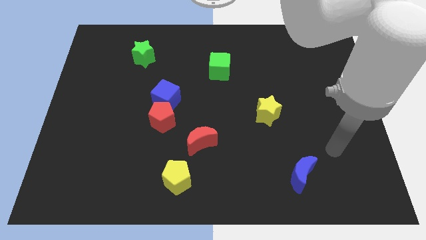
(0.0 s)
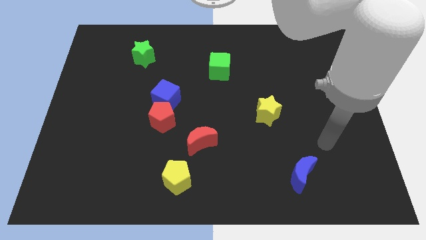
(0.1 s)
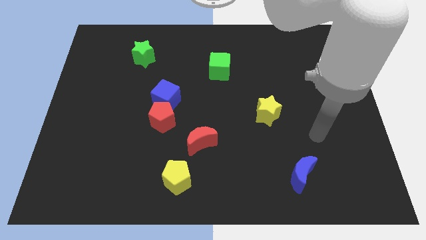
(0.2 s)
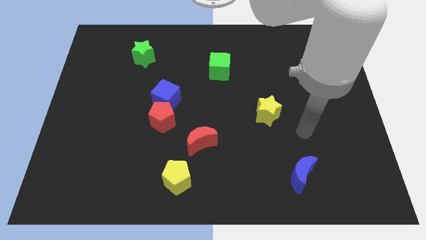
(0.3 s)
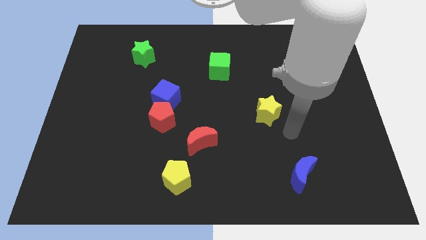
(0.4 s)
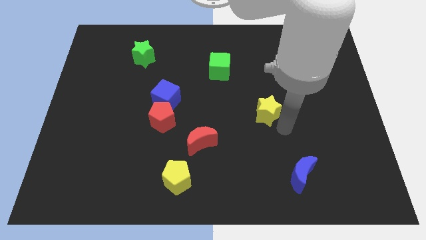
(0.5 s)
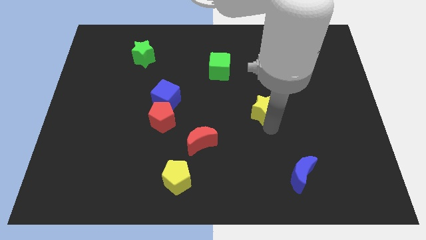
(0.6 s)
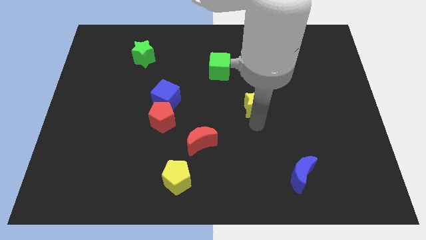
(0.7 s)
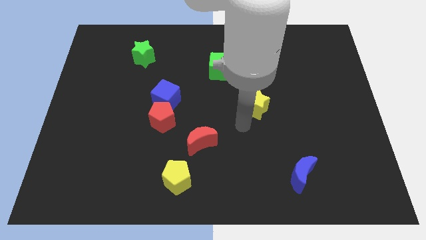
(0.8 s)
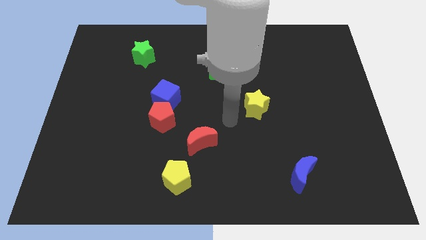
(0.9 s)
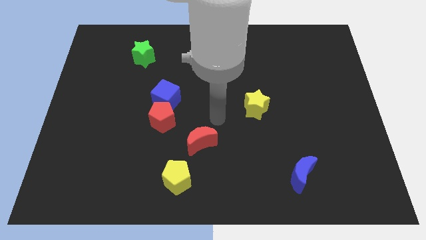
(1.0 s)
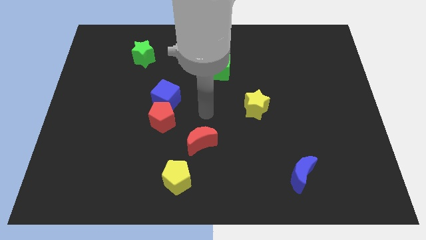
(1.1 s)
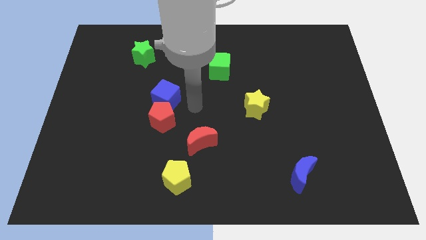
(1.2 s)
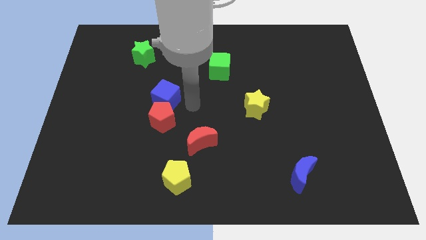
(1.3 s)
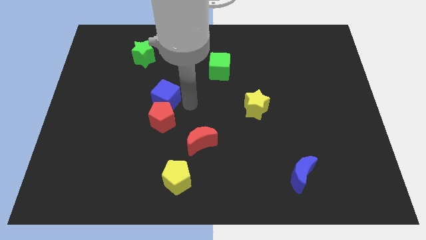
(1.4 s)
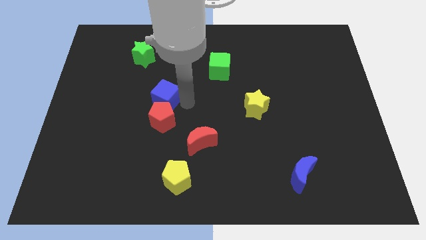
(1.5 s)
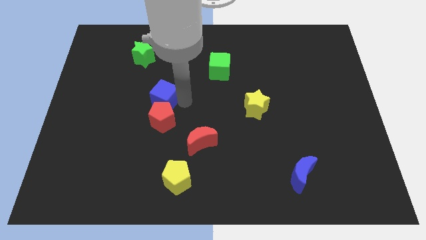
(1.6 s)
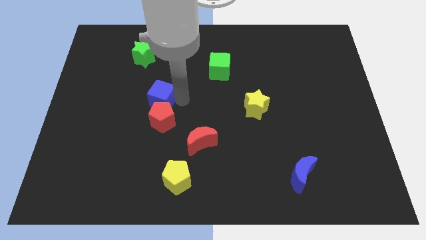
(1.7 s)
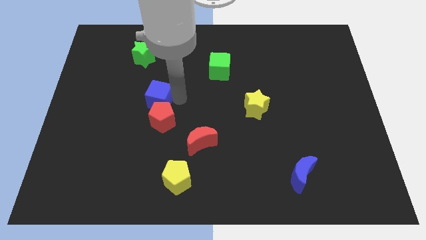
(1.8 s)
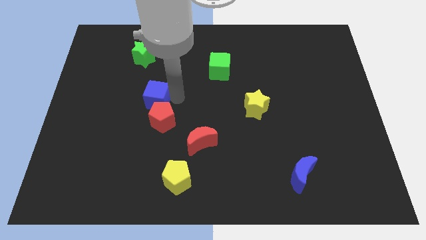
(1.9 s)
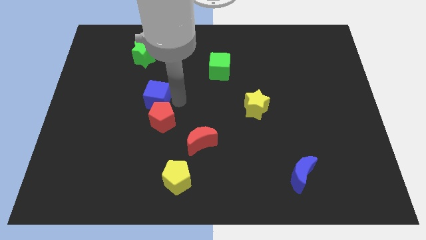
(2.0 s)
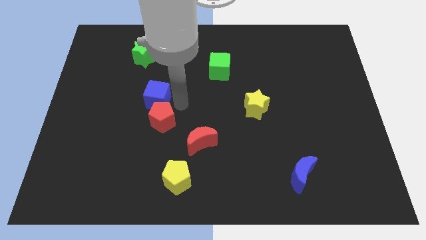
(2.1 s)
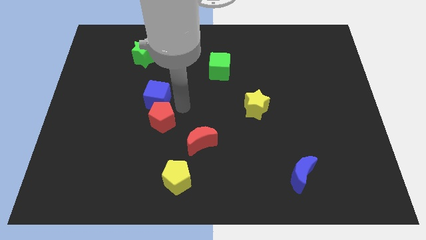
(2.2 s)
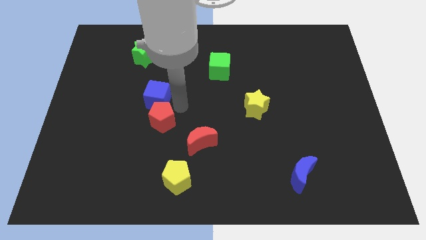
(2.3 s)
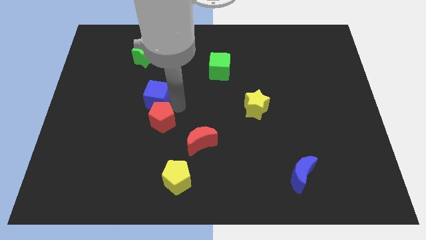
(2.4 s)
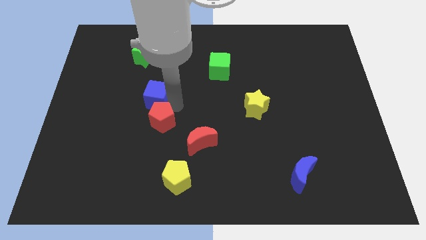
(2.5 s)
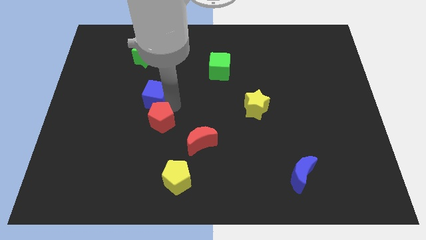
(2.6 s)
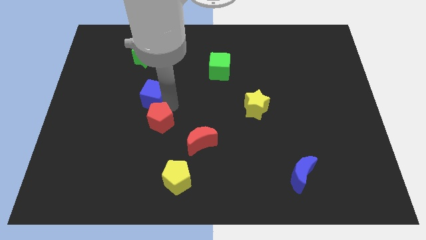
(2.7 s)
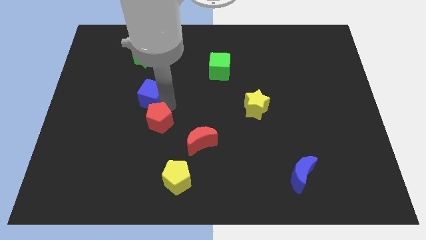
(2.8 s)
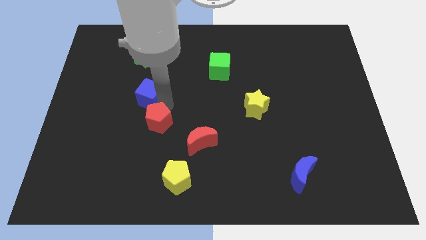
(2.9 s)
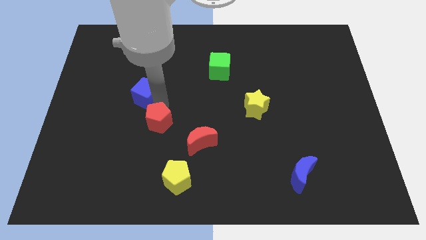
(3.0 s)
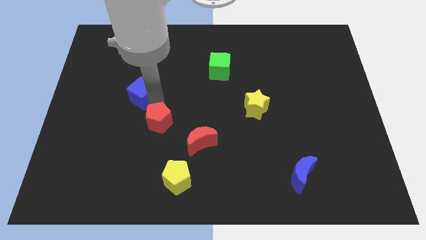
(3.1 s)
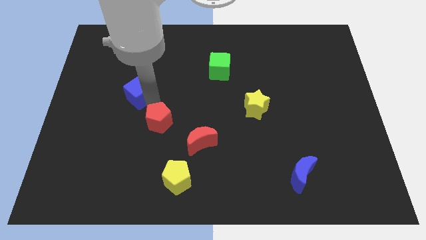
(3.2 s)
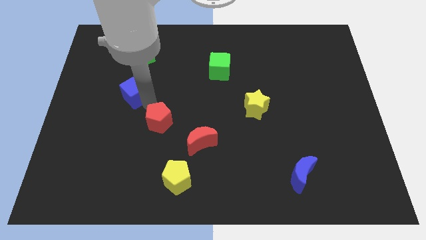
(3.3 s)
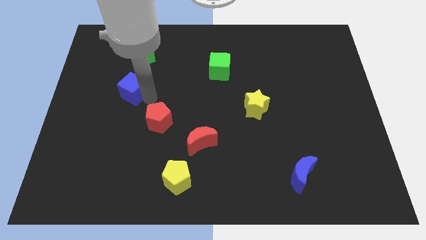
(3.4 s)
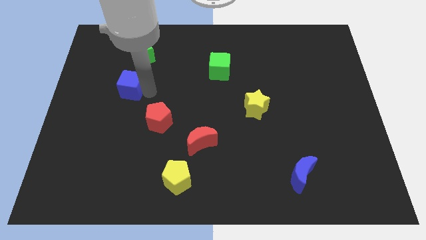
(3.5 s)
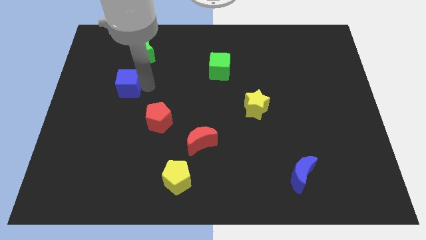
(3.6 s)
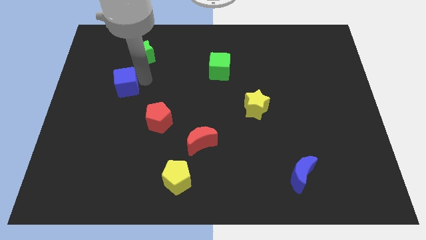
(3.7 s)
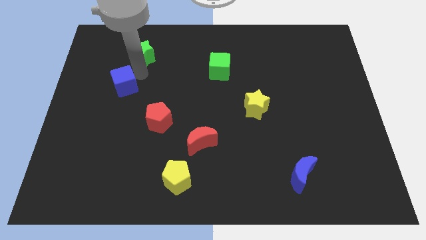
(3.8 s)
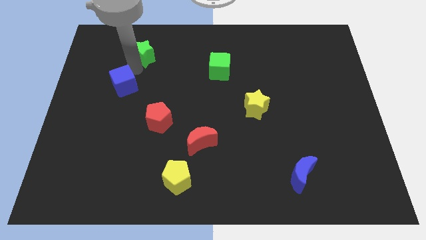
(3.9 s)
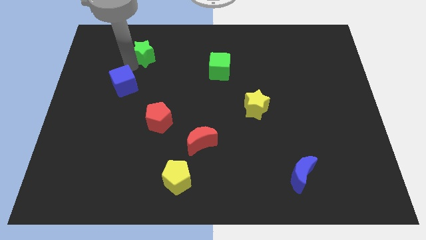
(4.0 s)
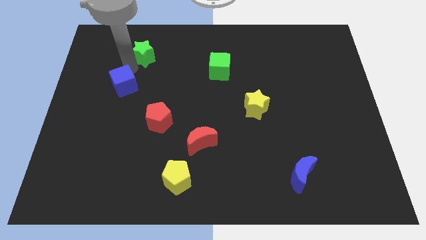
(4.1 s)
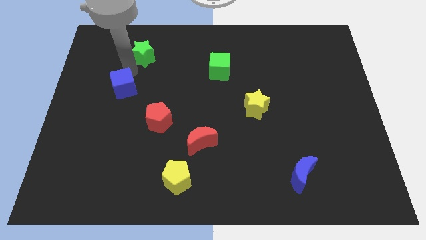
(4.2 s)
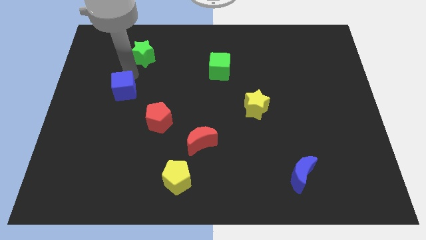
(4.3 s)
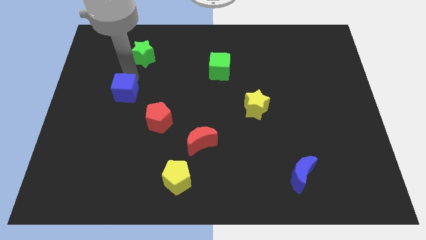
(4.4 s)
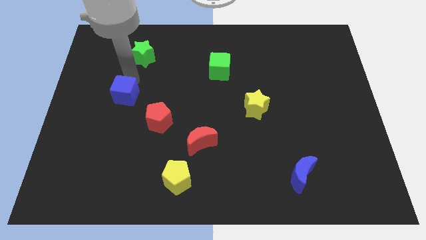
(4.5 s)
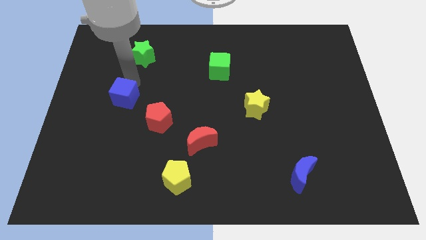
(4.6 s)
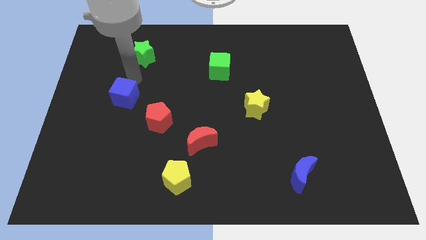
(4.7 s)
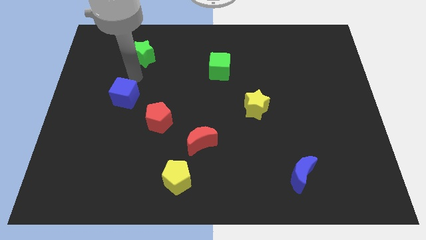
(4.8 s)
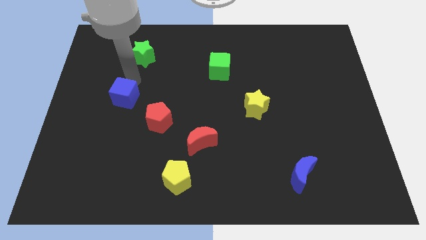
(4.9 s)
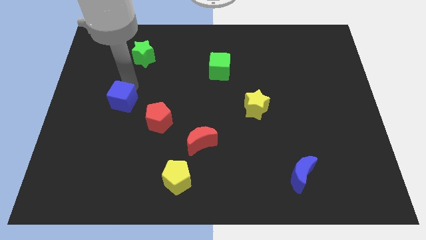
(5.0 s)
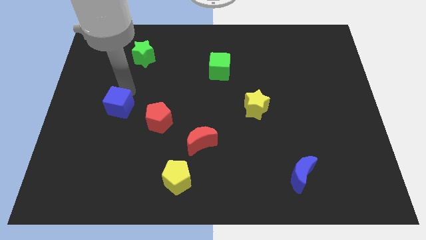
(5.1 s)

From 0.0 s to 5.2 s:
slide the blue cube to the left of the red pentagon

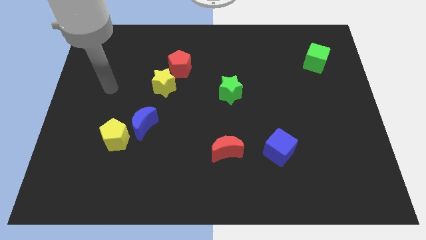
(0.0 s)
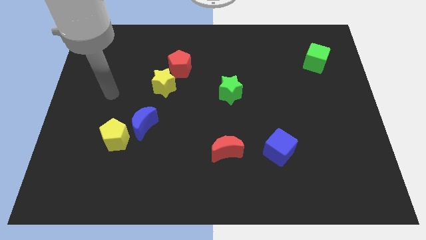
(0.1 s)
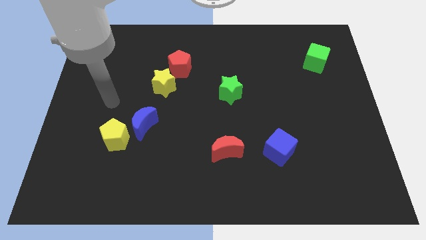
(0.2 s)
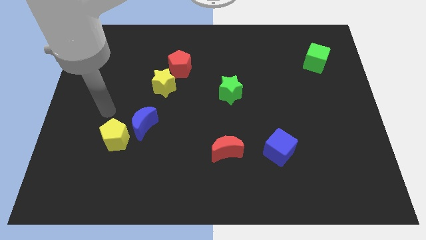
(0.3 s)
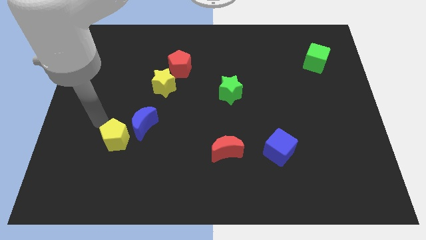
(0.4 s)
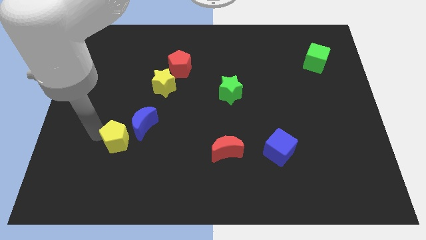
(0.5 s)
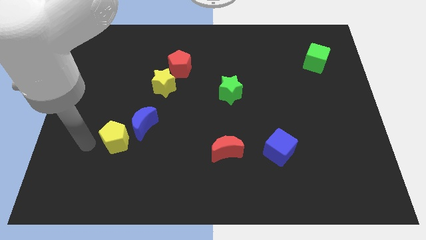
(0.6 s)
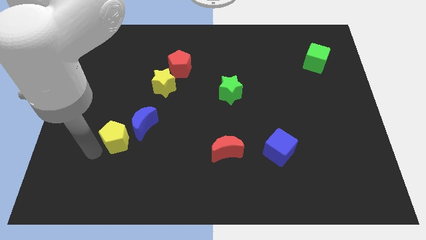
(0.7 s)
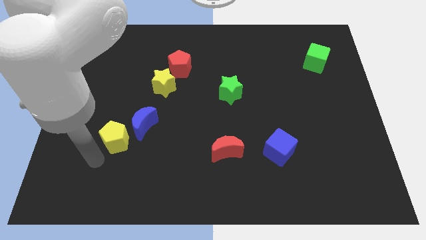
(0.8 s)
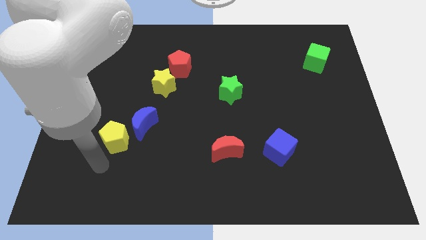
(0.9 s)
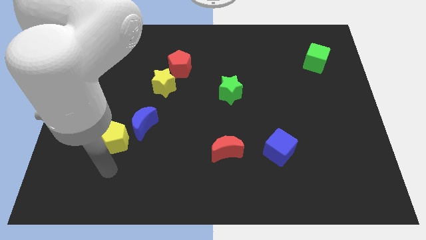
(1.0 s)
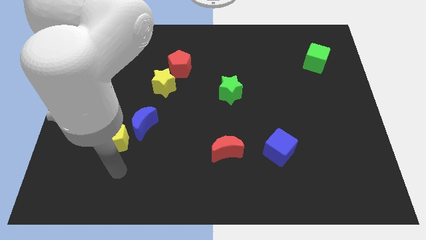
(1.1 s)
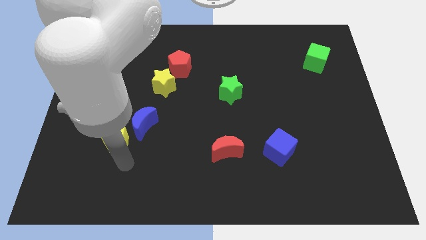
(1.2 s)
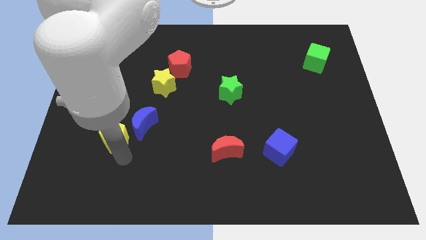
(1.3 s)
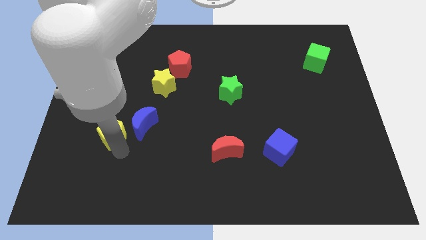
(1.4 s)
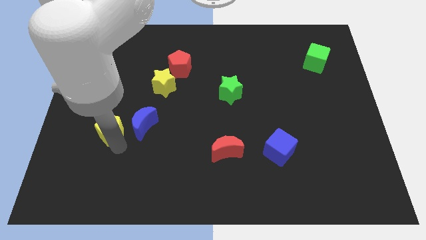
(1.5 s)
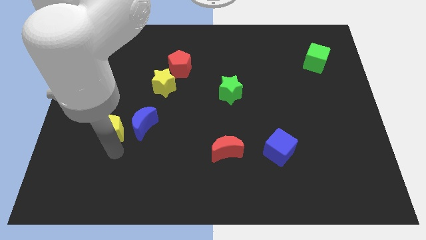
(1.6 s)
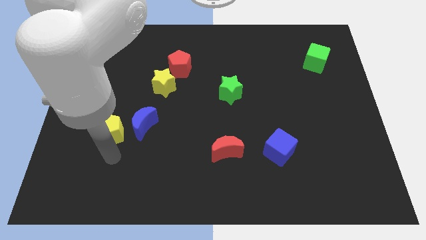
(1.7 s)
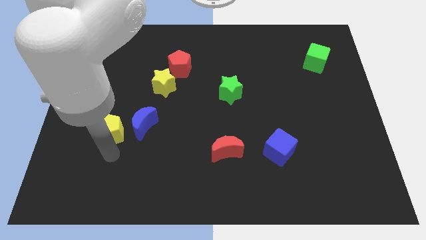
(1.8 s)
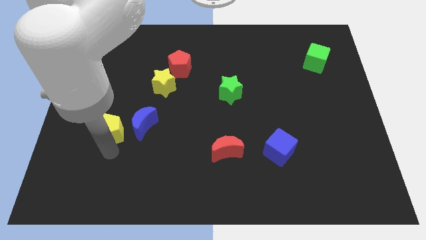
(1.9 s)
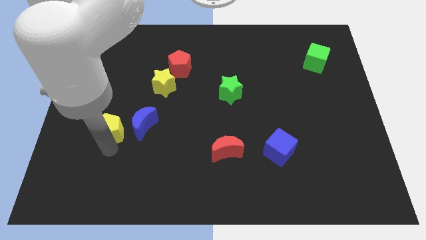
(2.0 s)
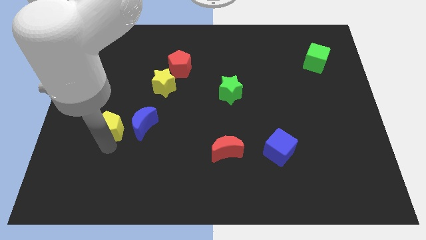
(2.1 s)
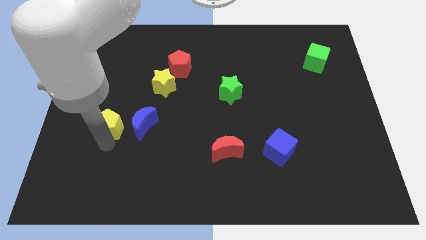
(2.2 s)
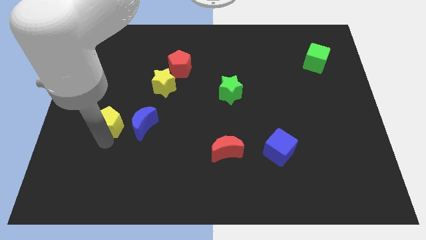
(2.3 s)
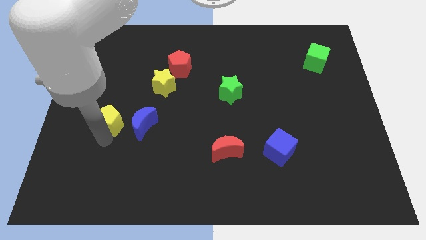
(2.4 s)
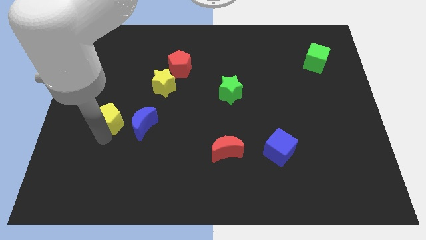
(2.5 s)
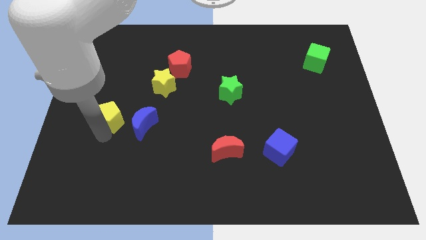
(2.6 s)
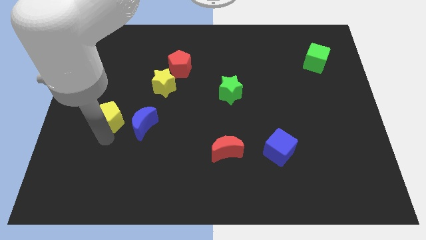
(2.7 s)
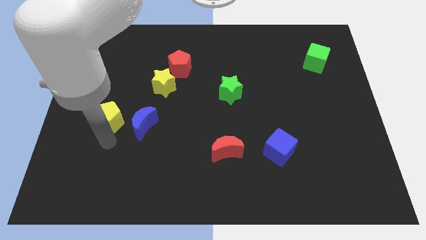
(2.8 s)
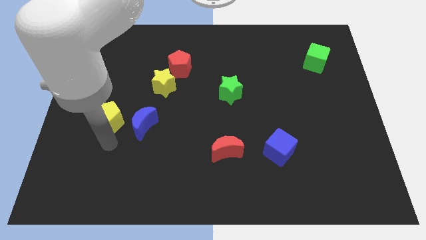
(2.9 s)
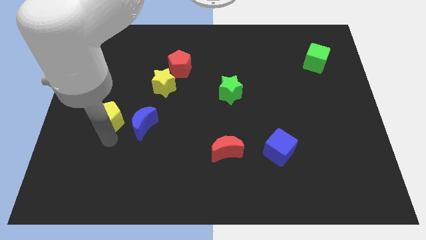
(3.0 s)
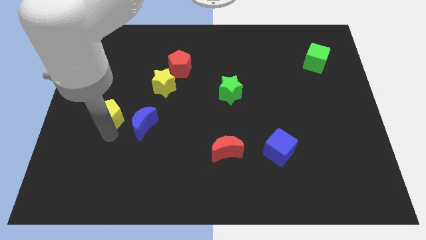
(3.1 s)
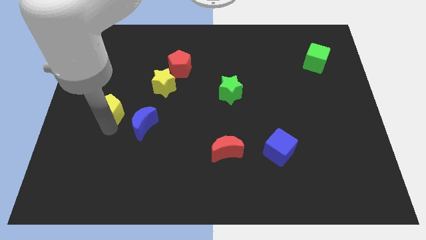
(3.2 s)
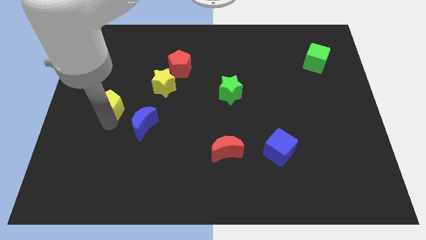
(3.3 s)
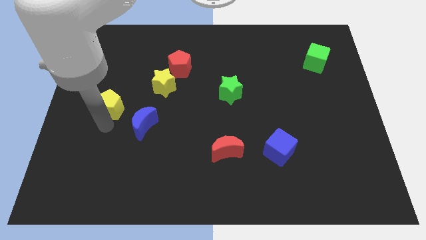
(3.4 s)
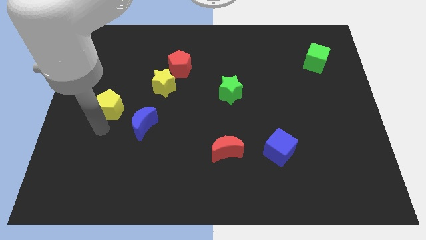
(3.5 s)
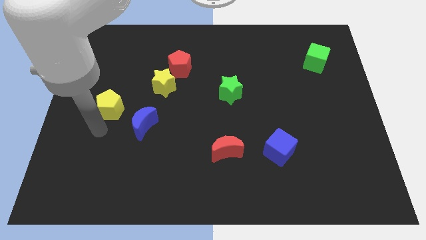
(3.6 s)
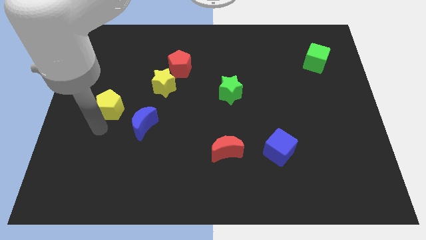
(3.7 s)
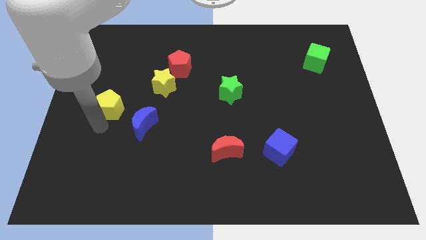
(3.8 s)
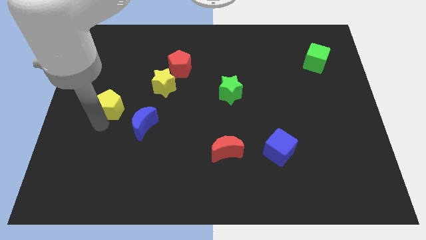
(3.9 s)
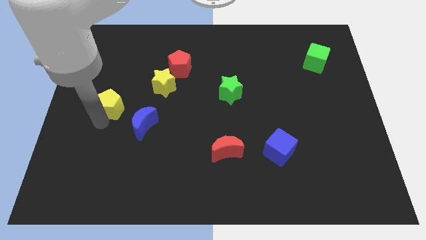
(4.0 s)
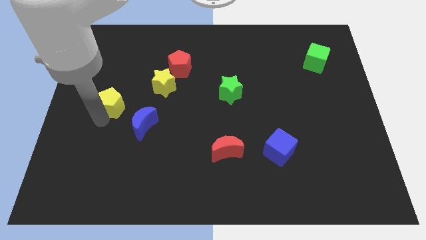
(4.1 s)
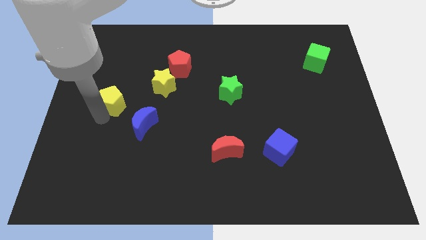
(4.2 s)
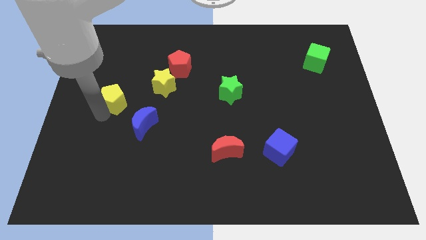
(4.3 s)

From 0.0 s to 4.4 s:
move the yellow pentagon to the left of the yellow star
